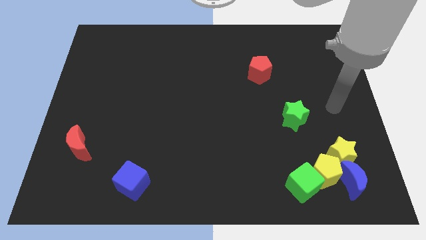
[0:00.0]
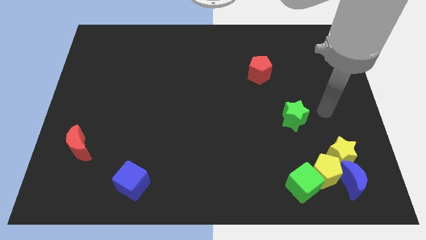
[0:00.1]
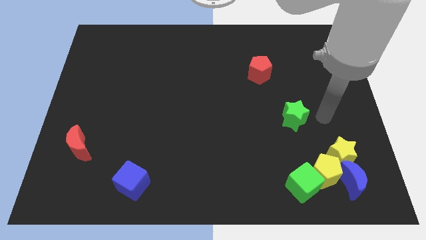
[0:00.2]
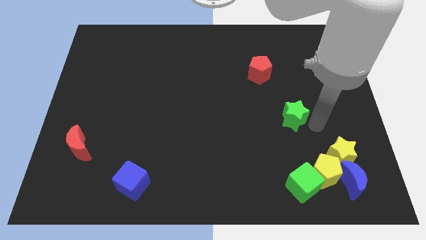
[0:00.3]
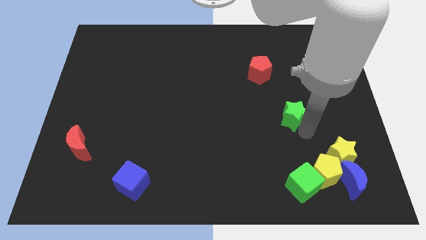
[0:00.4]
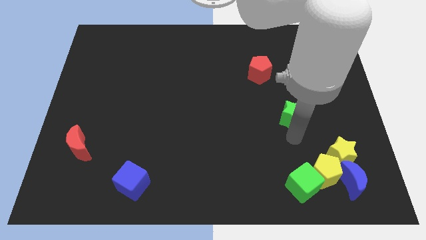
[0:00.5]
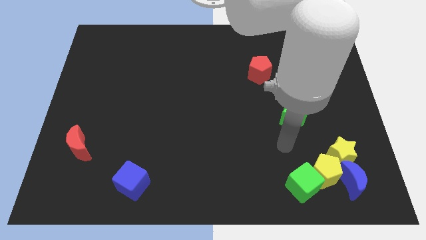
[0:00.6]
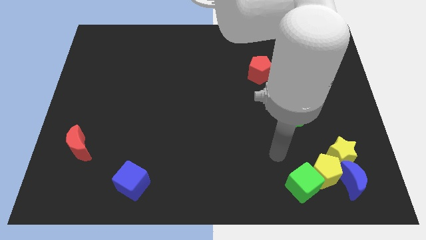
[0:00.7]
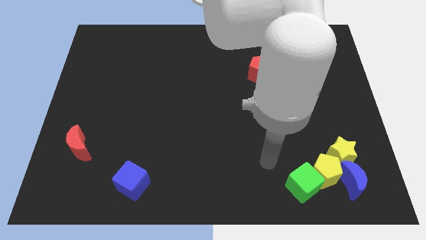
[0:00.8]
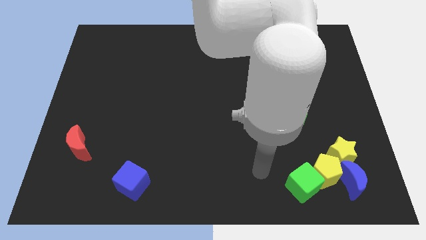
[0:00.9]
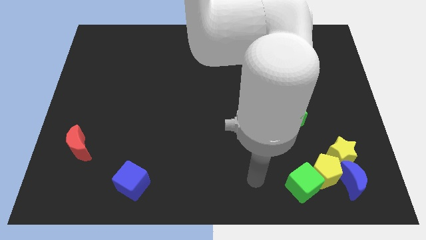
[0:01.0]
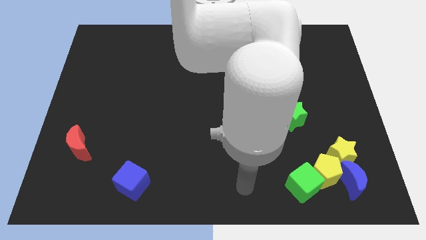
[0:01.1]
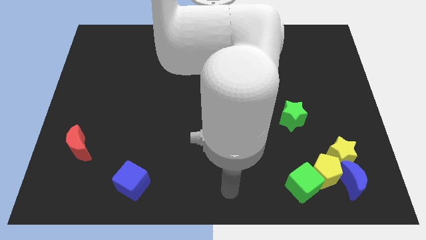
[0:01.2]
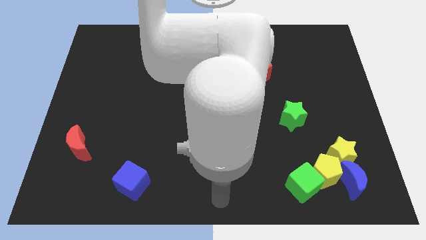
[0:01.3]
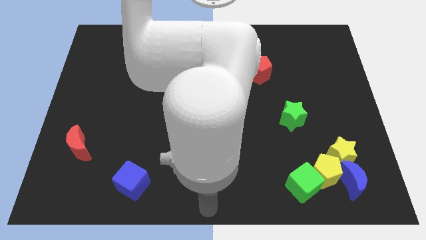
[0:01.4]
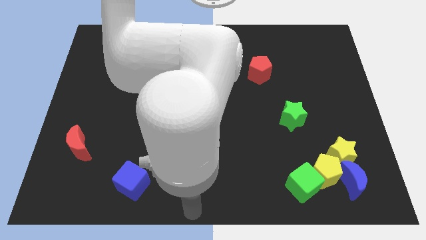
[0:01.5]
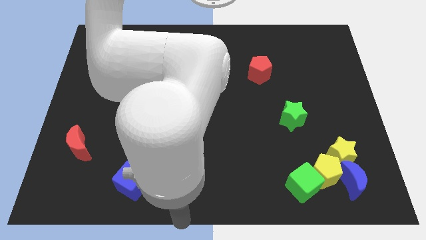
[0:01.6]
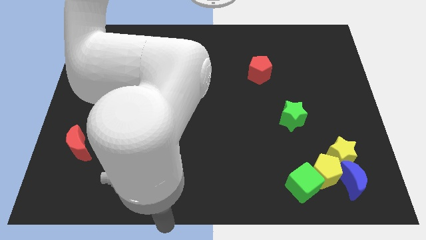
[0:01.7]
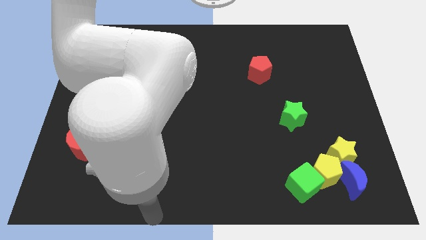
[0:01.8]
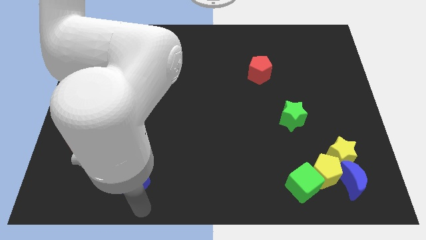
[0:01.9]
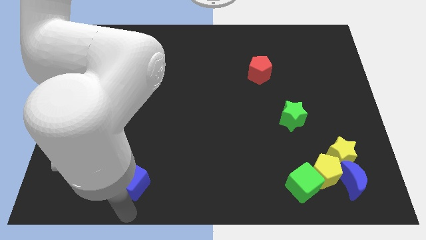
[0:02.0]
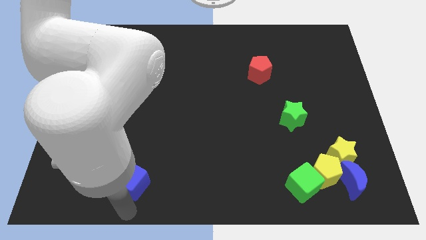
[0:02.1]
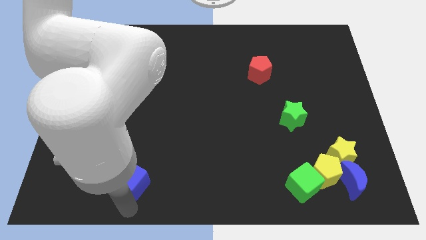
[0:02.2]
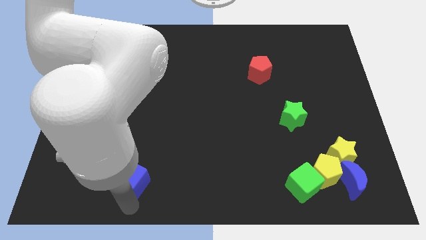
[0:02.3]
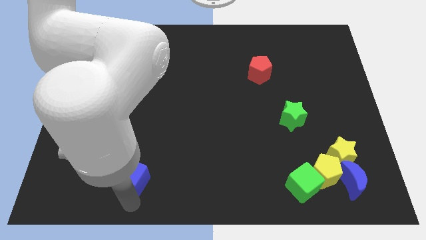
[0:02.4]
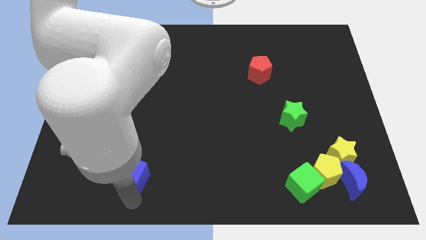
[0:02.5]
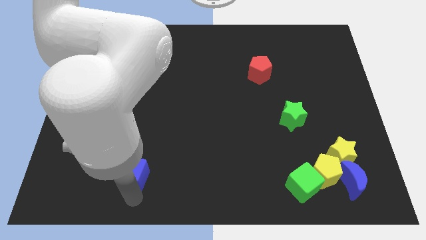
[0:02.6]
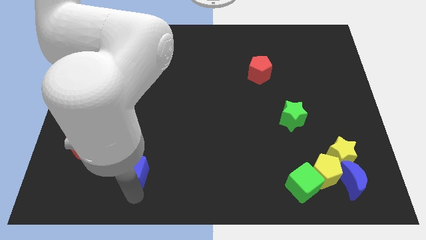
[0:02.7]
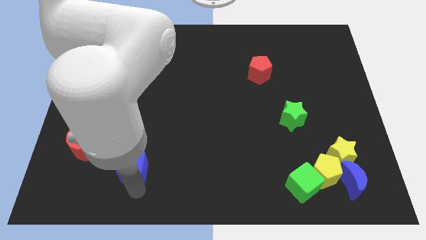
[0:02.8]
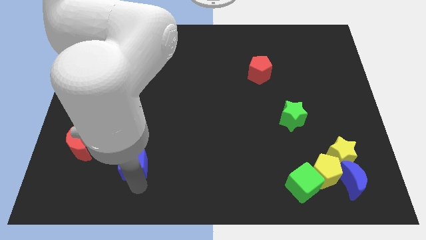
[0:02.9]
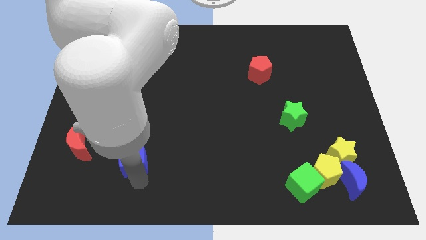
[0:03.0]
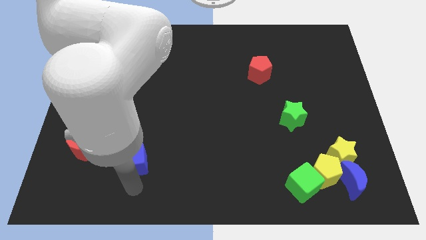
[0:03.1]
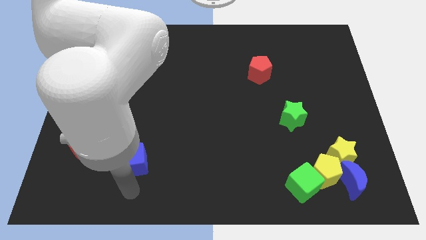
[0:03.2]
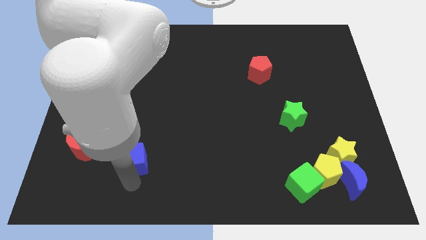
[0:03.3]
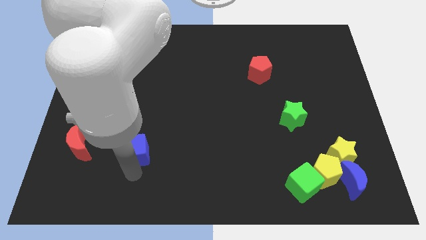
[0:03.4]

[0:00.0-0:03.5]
slide the blue cube a little bit up

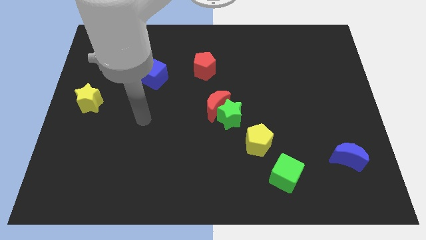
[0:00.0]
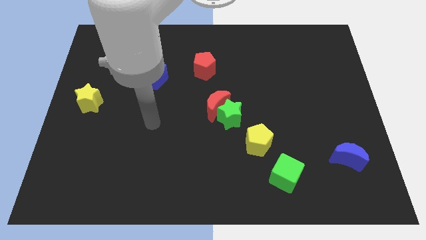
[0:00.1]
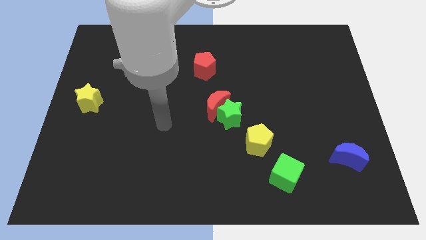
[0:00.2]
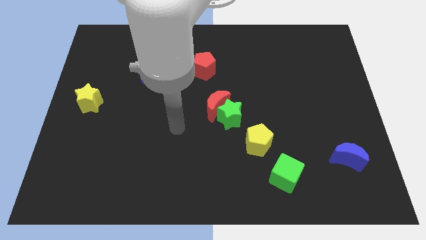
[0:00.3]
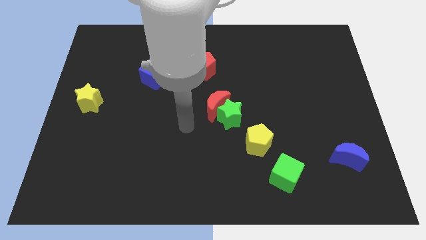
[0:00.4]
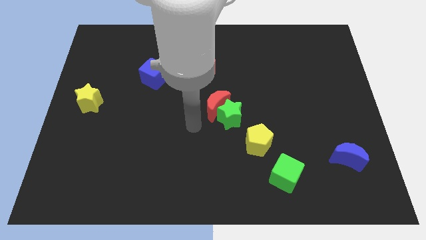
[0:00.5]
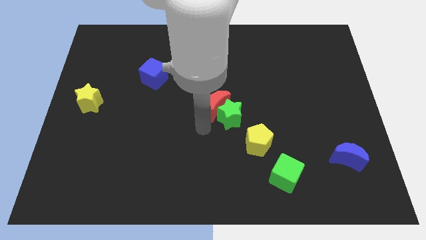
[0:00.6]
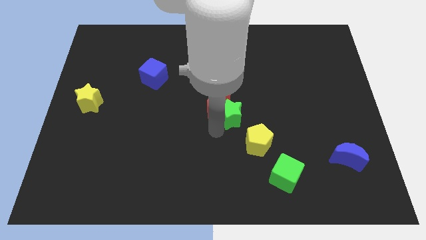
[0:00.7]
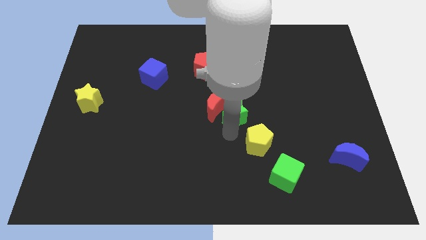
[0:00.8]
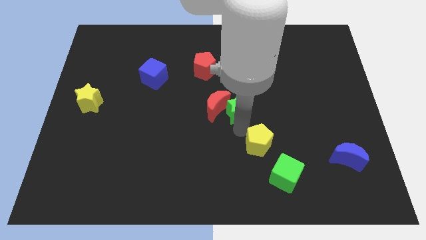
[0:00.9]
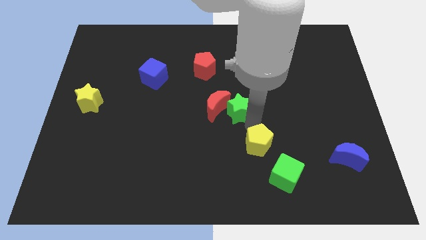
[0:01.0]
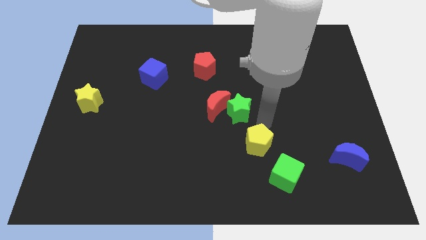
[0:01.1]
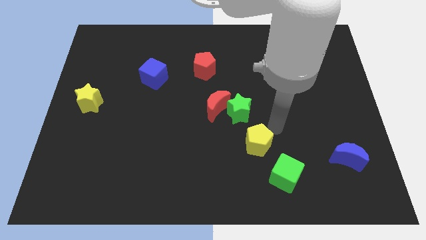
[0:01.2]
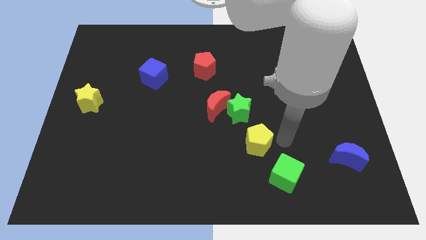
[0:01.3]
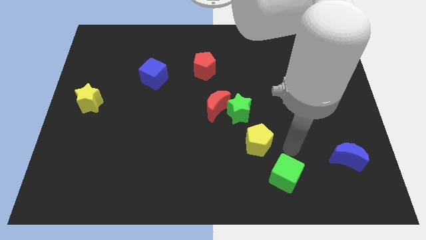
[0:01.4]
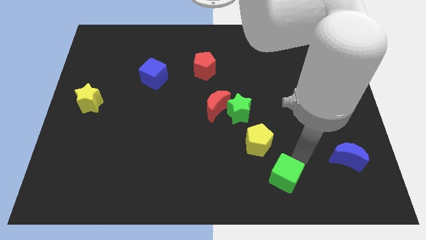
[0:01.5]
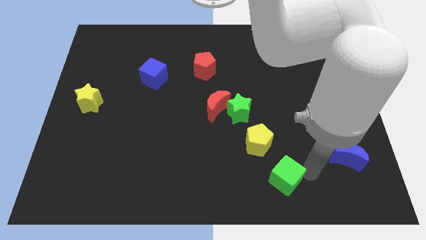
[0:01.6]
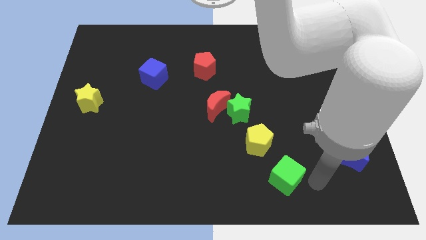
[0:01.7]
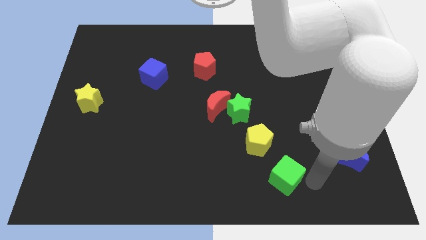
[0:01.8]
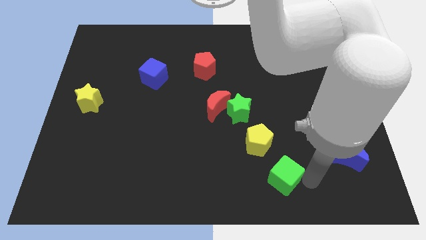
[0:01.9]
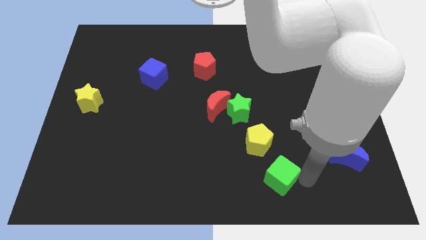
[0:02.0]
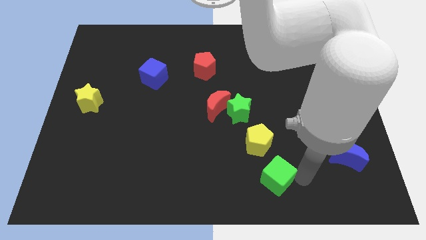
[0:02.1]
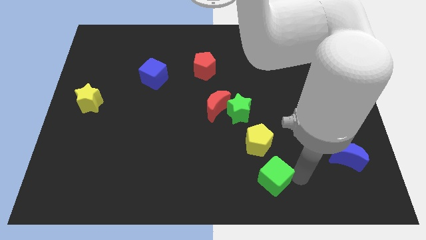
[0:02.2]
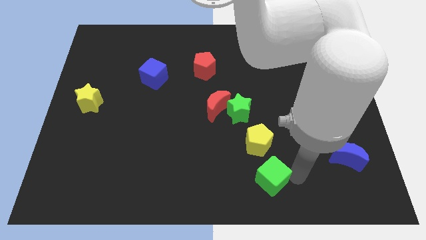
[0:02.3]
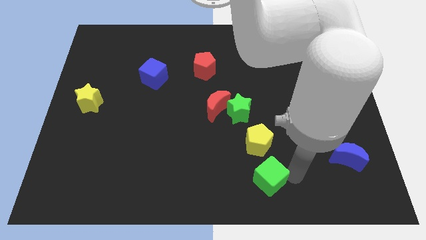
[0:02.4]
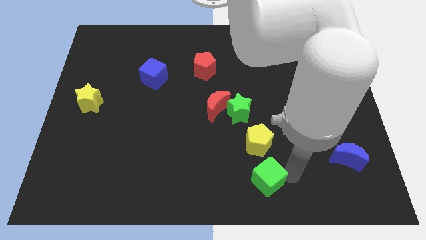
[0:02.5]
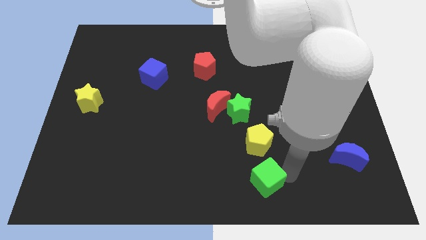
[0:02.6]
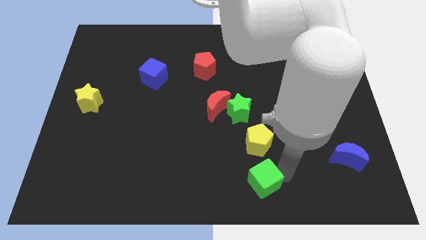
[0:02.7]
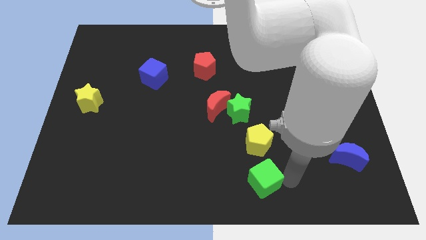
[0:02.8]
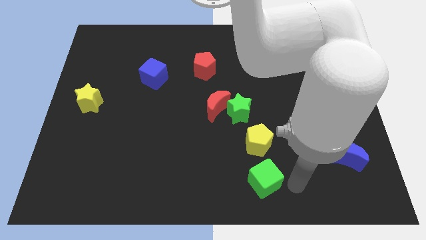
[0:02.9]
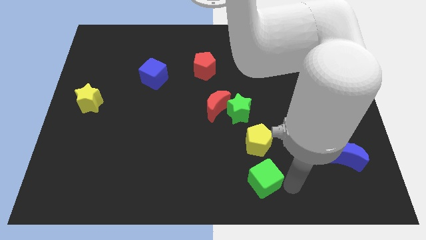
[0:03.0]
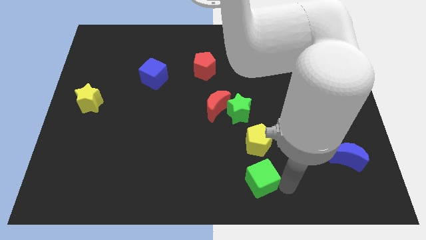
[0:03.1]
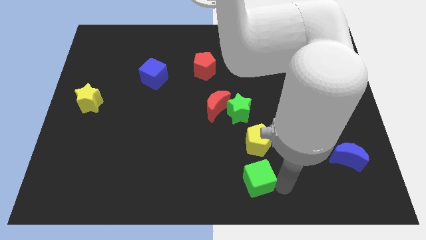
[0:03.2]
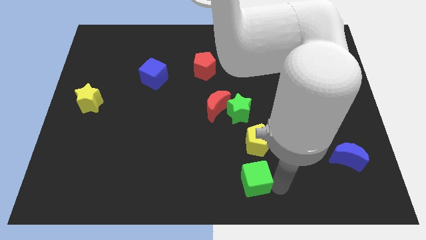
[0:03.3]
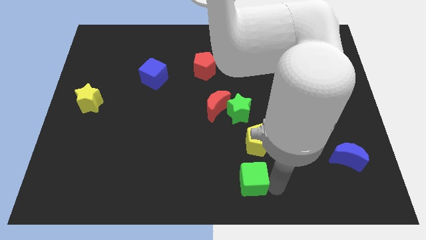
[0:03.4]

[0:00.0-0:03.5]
move the green cube to the left a little bit

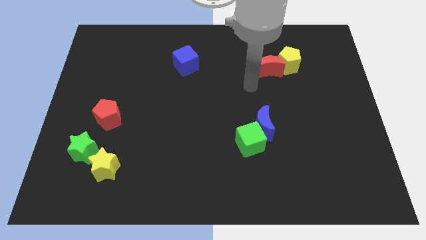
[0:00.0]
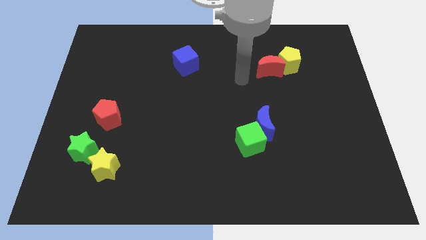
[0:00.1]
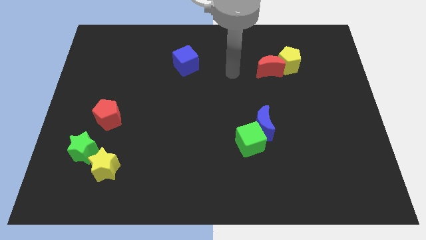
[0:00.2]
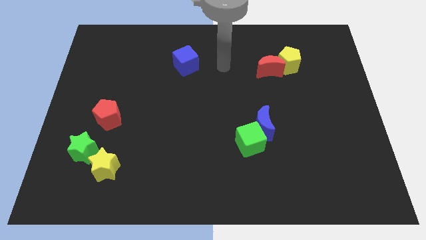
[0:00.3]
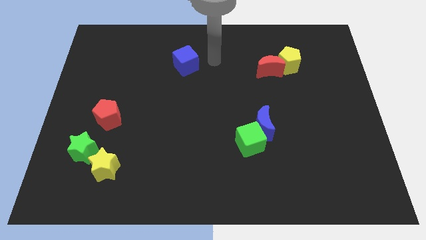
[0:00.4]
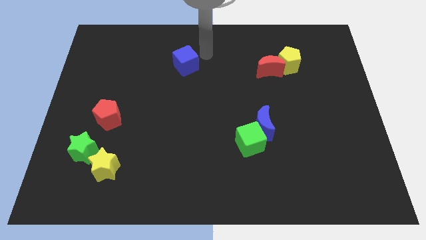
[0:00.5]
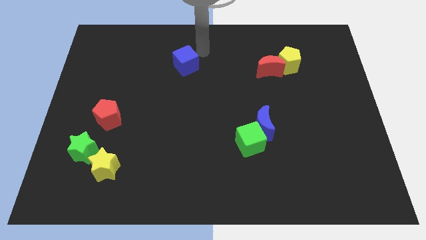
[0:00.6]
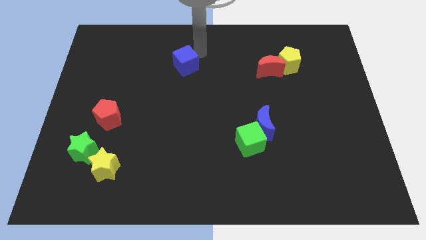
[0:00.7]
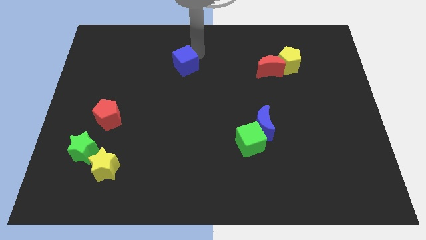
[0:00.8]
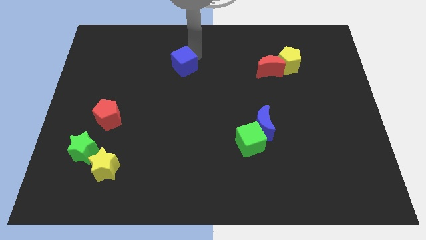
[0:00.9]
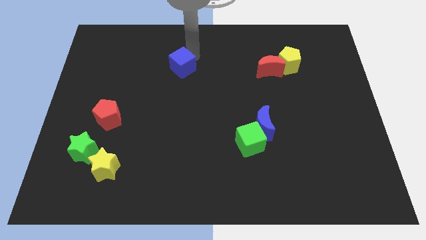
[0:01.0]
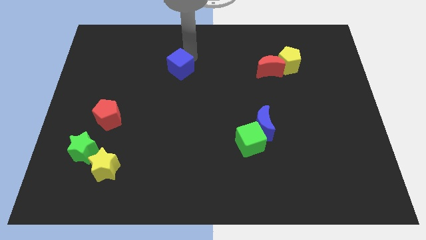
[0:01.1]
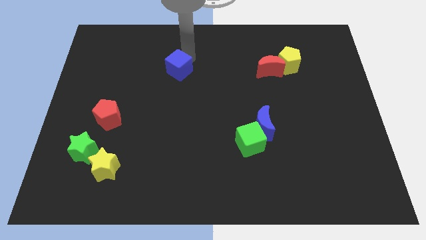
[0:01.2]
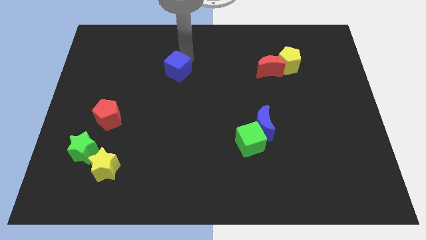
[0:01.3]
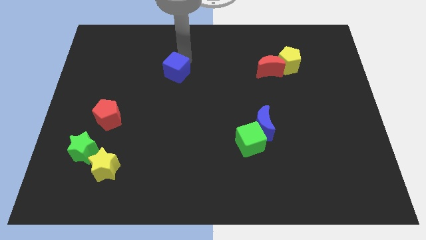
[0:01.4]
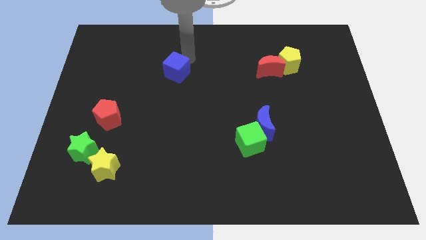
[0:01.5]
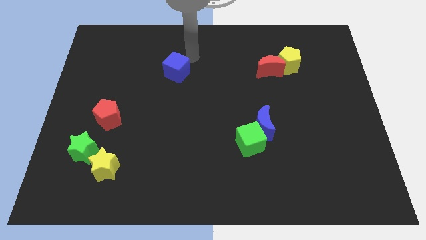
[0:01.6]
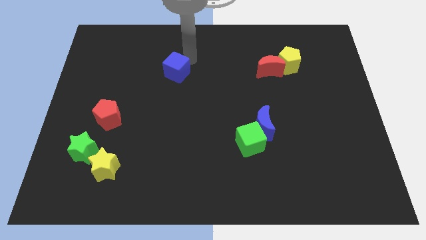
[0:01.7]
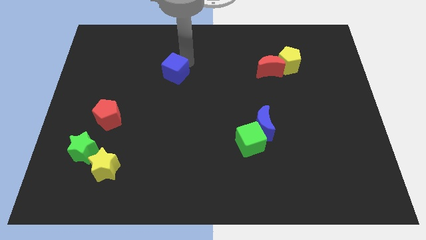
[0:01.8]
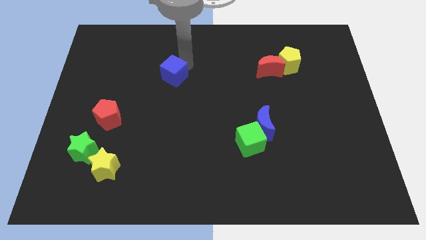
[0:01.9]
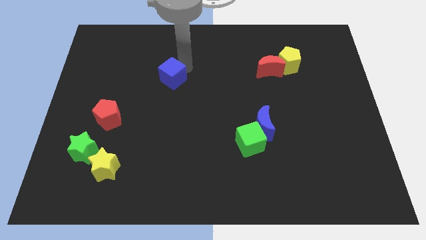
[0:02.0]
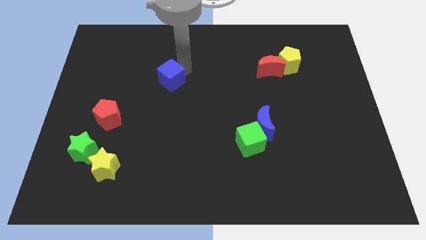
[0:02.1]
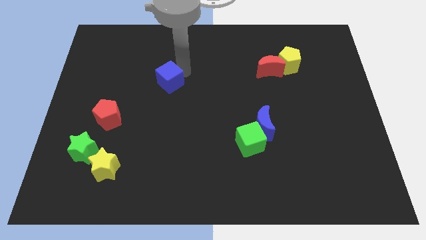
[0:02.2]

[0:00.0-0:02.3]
slightly push the blue cube diagonally downwards and left
